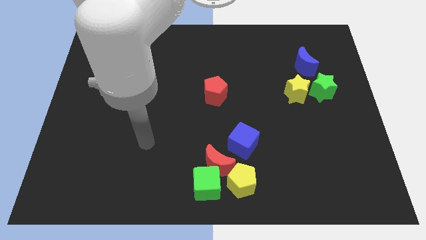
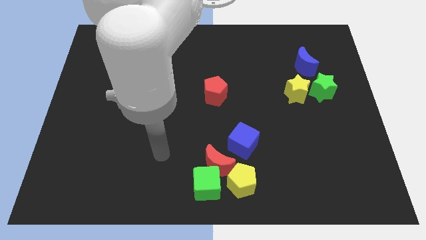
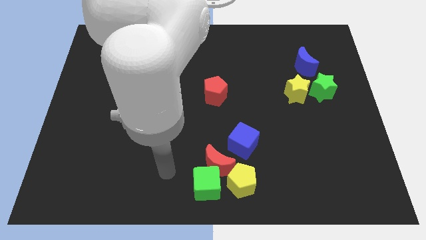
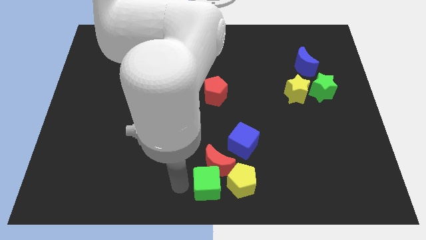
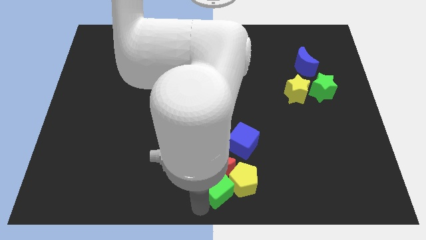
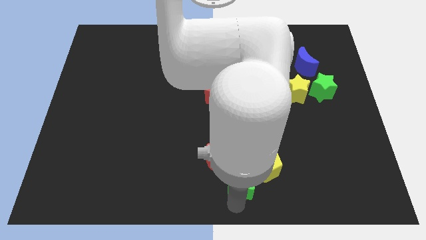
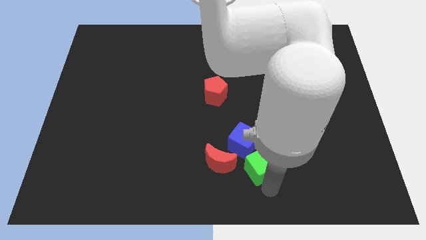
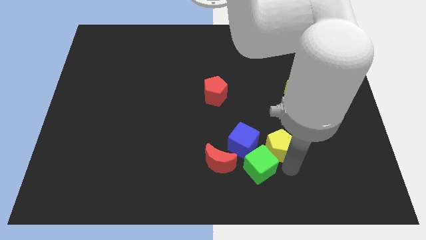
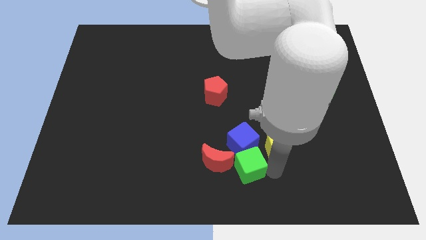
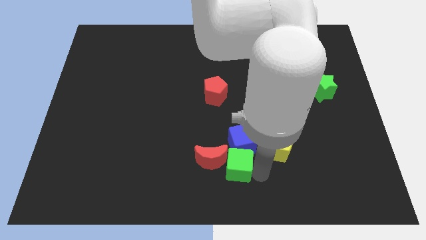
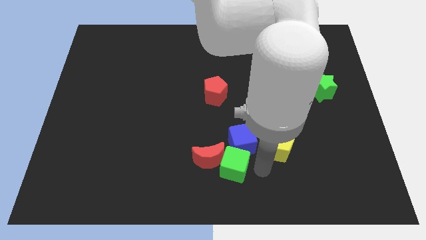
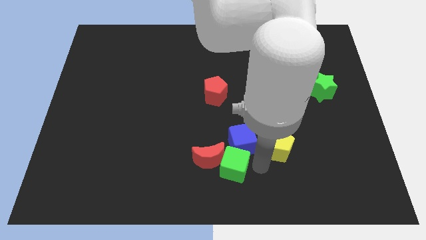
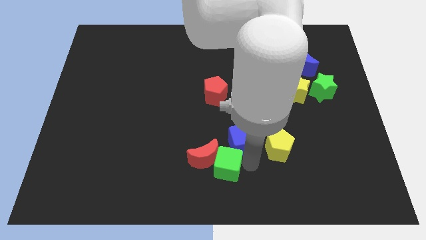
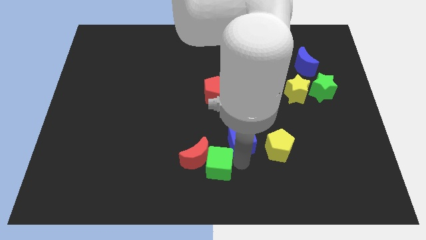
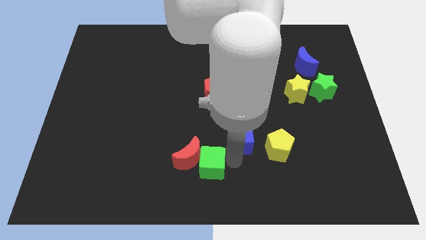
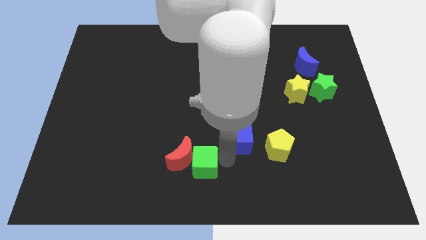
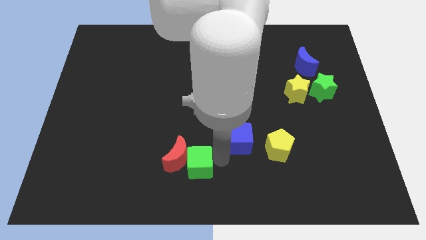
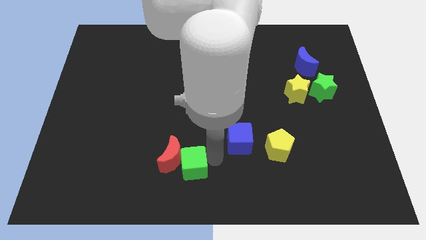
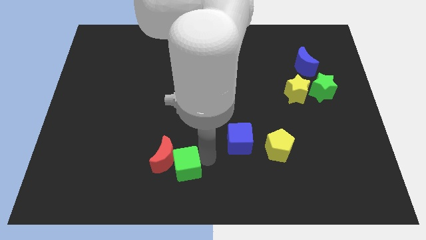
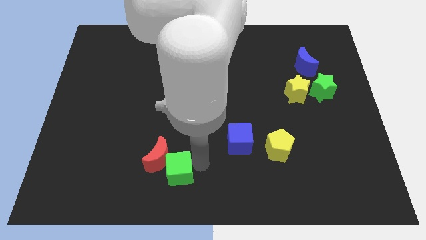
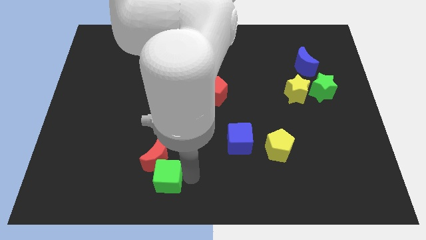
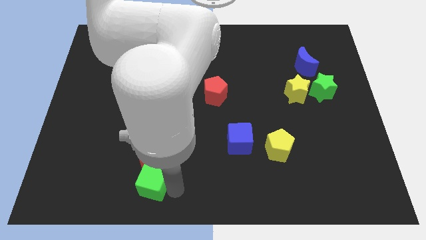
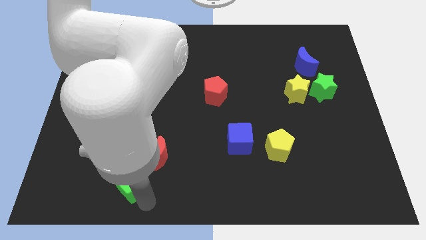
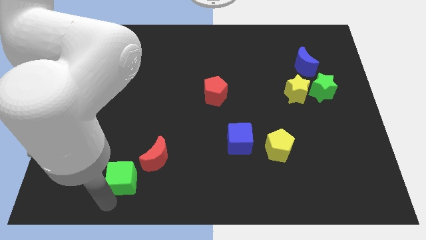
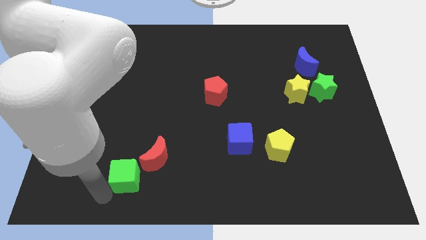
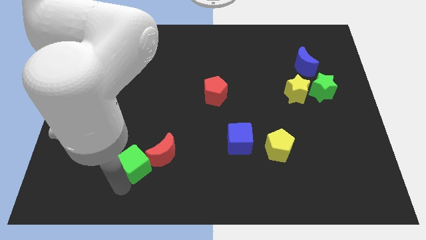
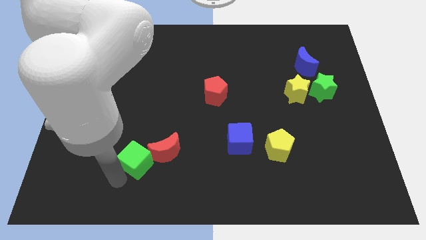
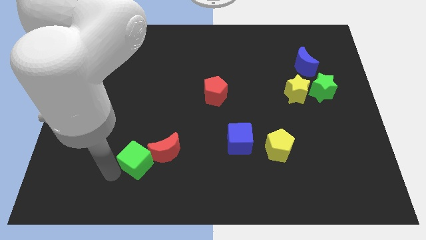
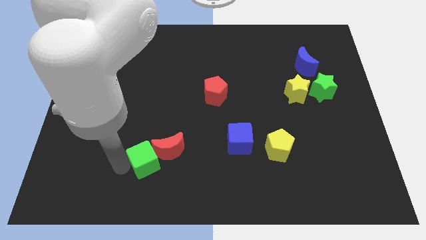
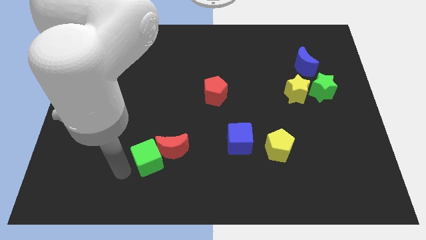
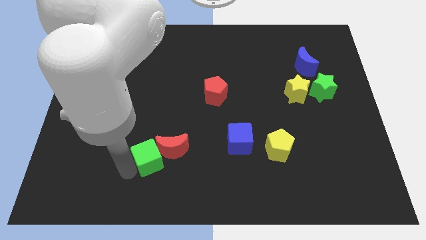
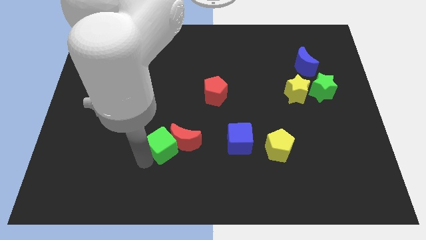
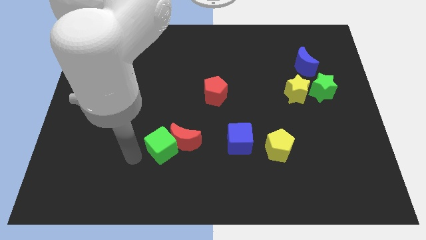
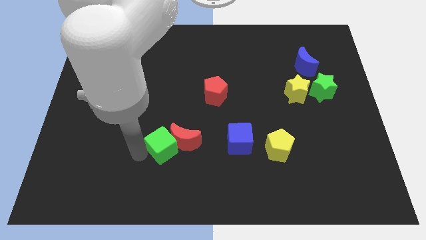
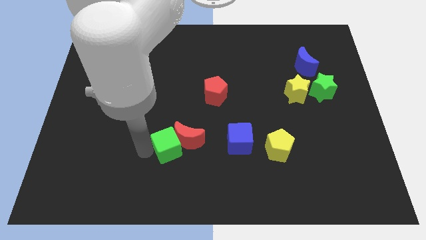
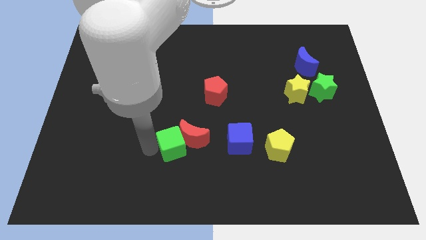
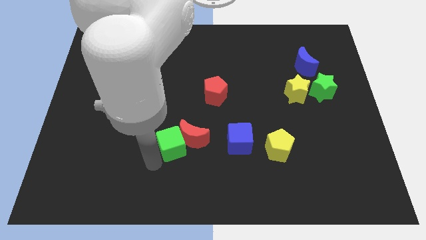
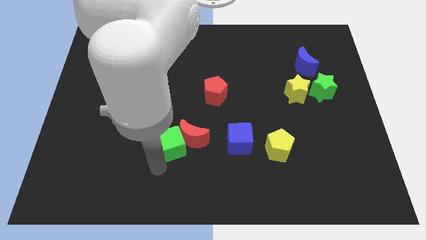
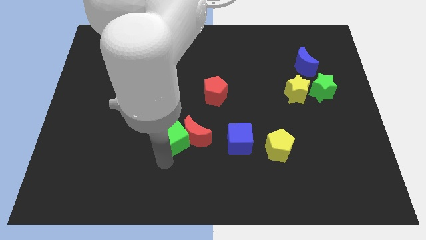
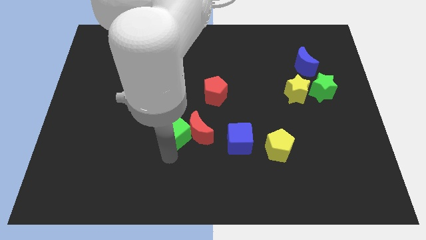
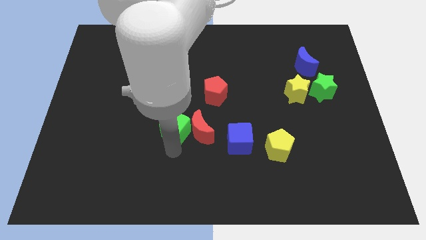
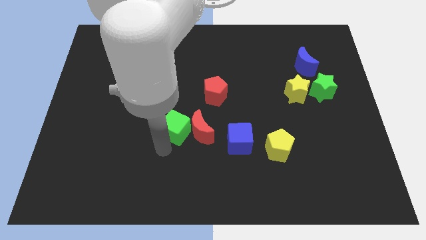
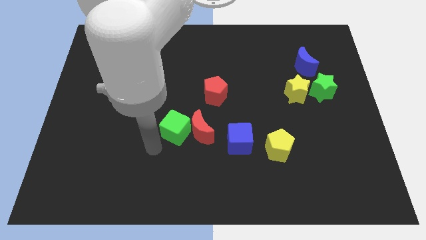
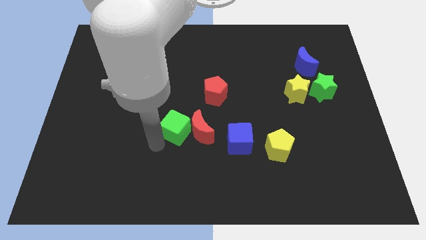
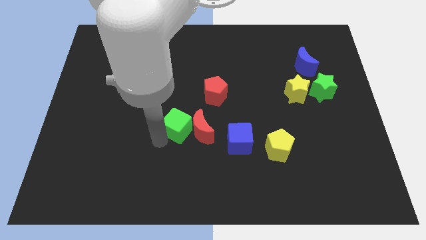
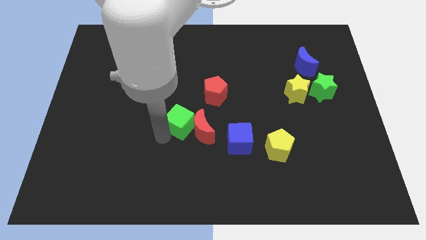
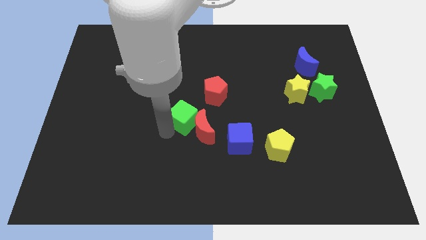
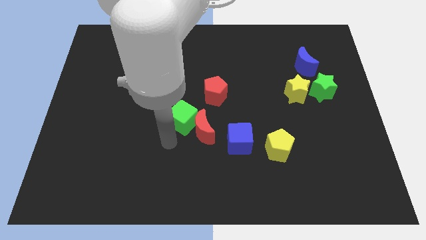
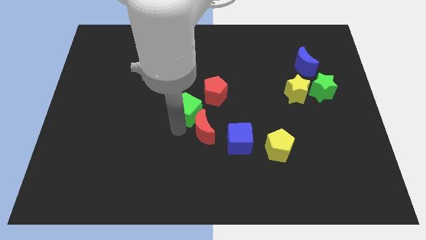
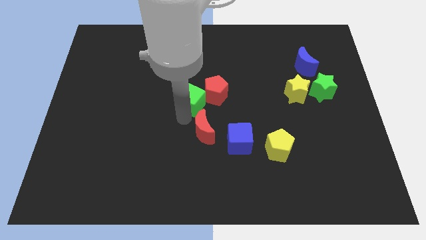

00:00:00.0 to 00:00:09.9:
push the green cube up

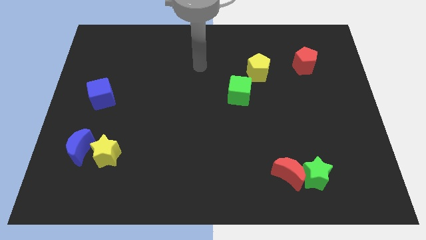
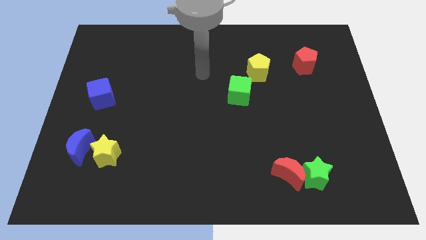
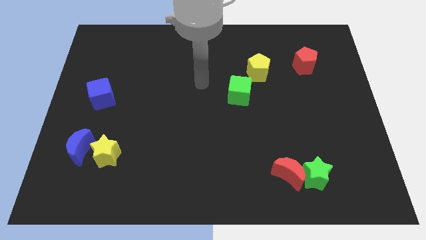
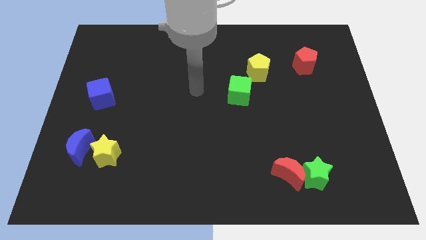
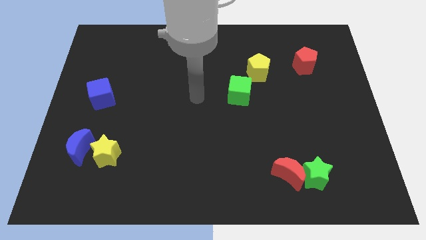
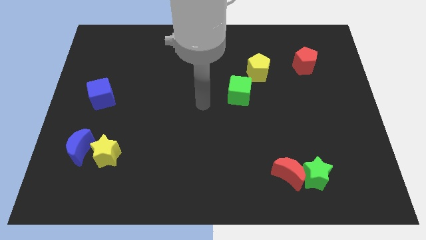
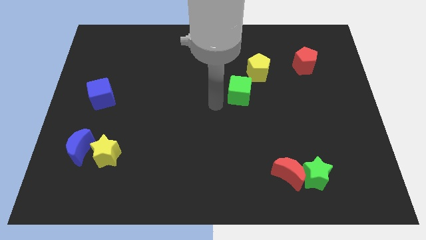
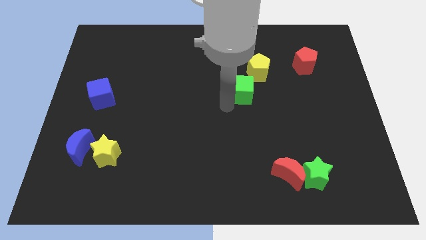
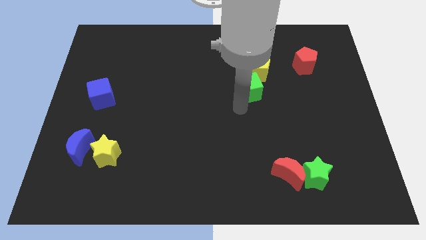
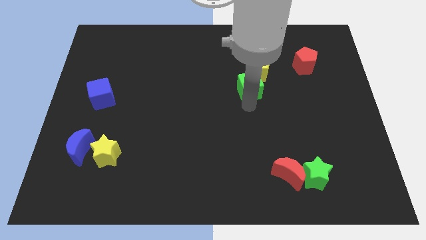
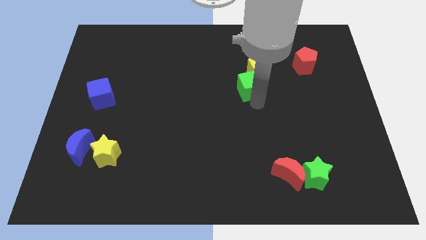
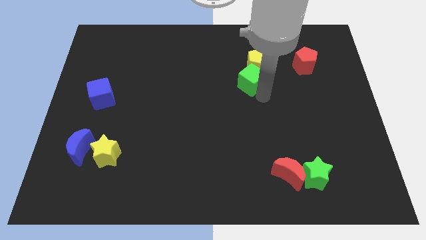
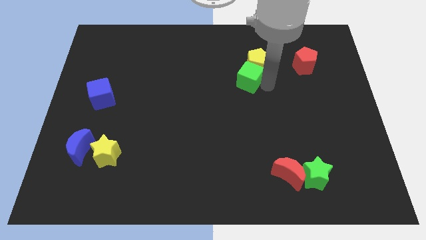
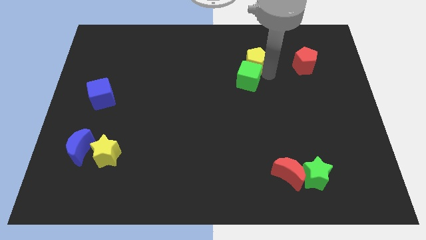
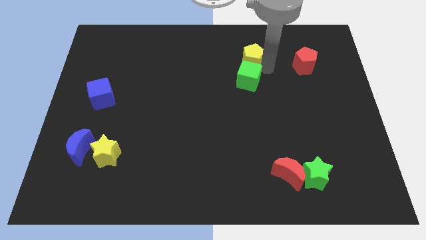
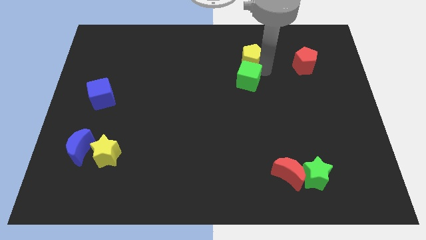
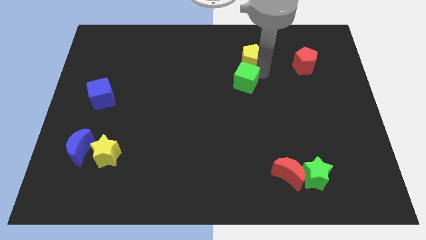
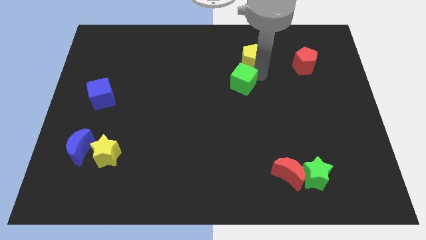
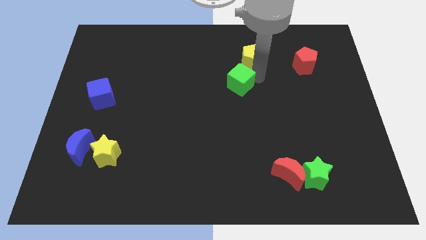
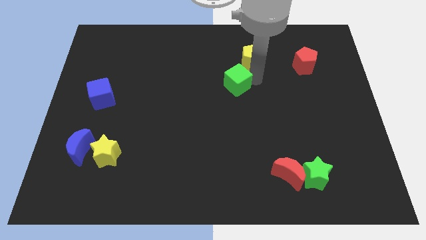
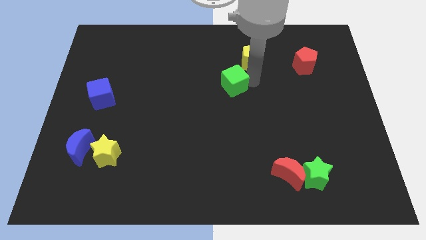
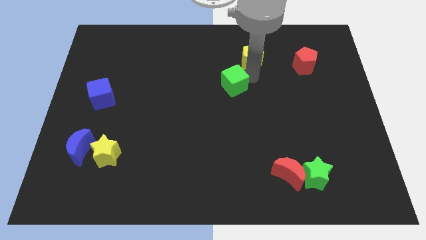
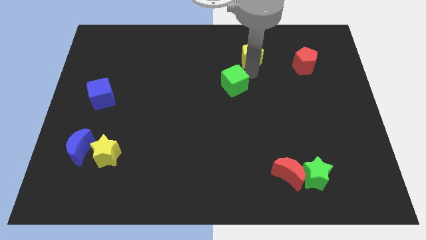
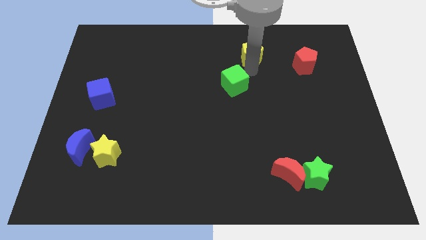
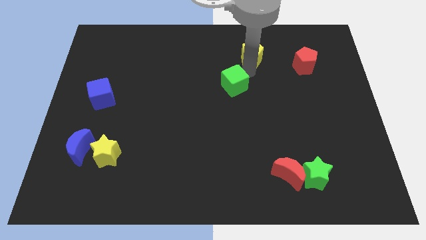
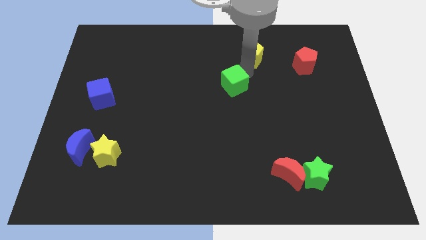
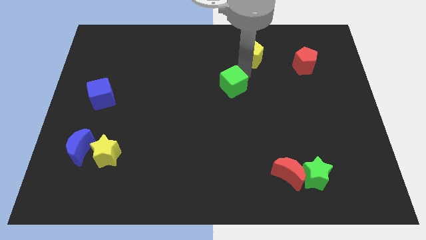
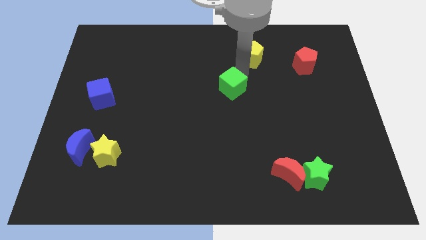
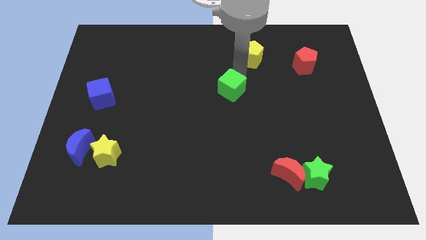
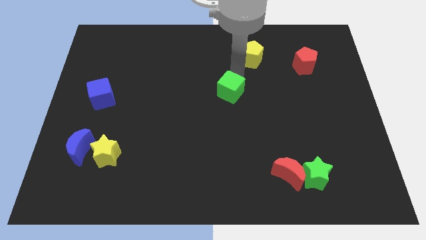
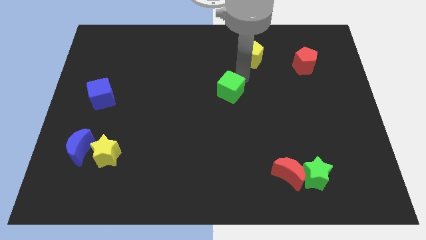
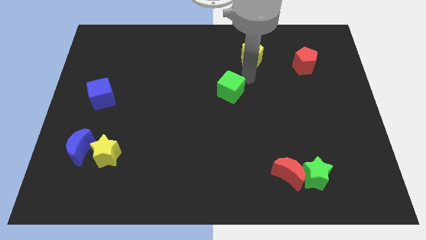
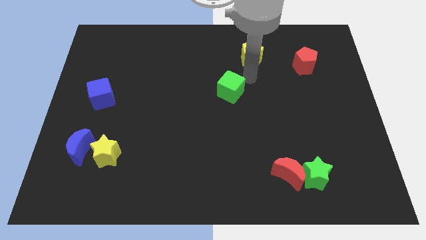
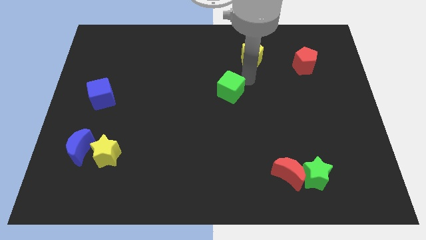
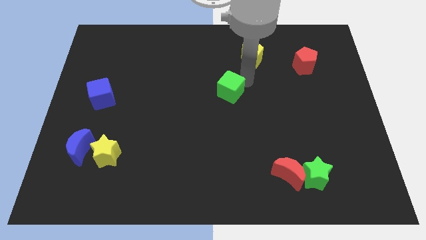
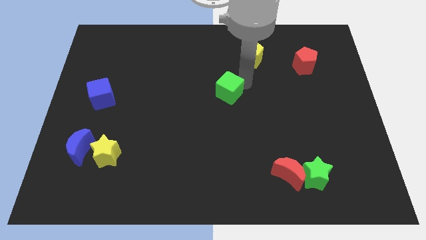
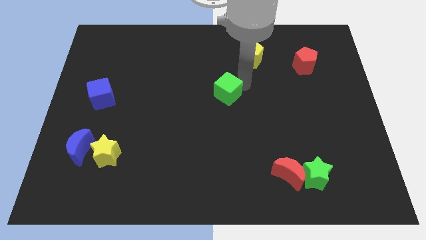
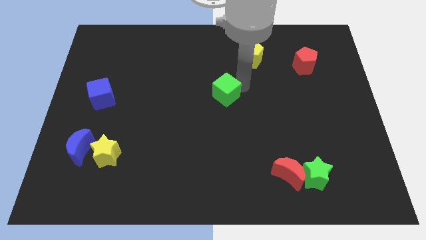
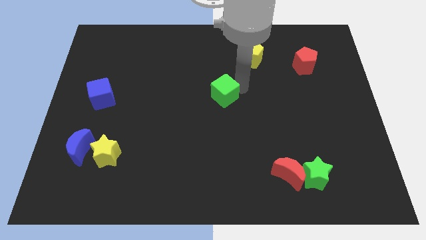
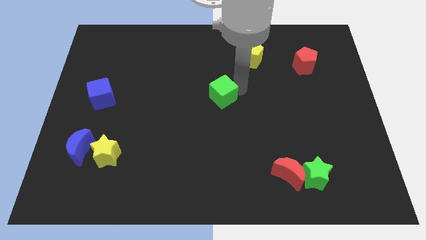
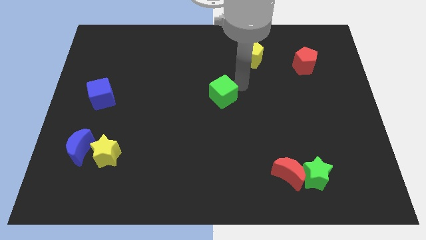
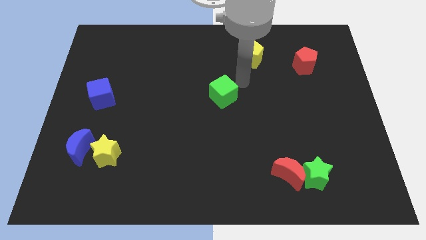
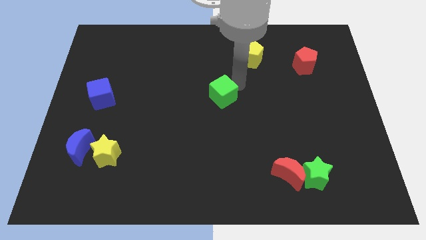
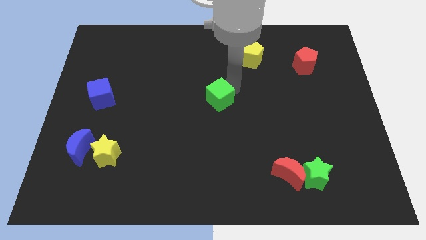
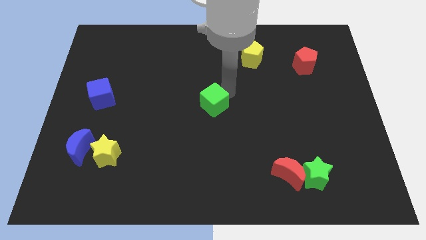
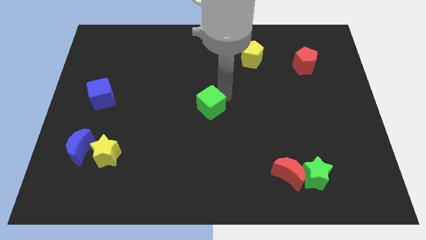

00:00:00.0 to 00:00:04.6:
move the green cube diagonally down and left a little
